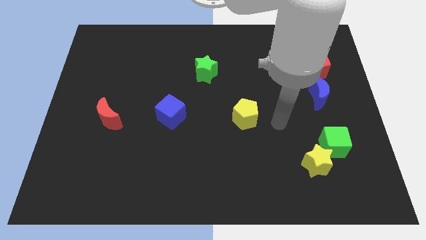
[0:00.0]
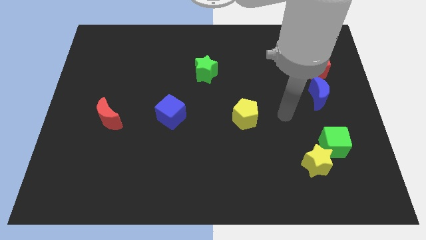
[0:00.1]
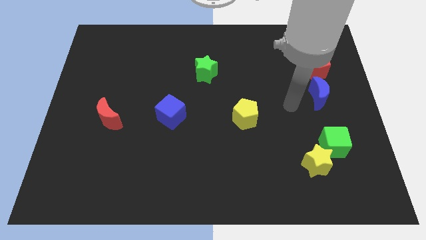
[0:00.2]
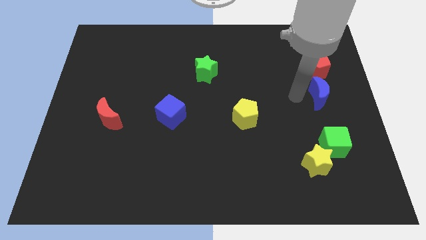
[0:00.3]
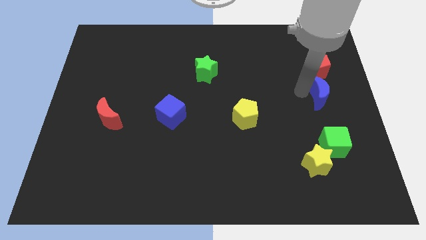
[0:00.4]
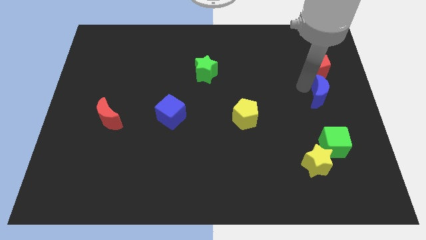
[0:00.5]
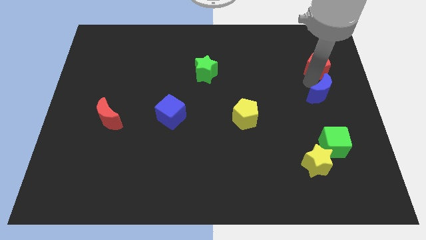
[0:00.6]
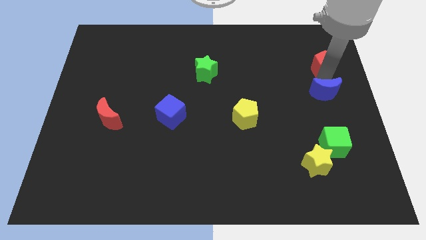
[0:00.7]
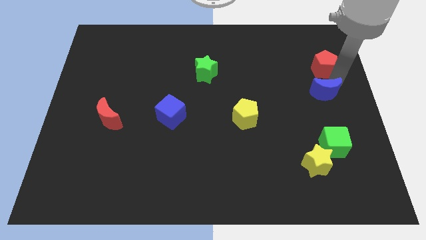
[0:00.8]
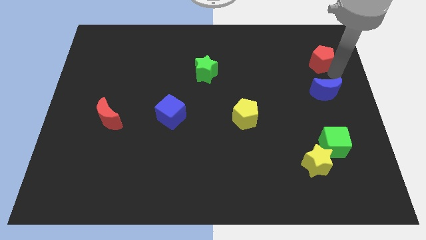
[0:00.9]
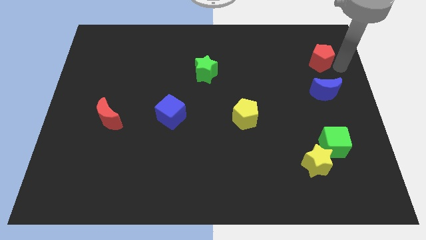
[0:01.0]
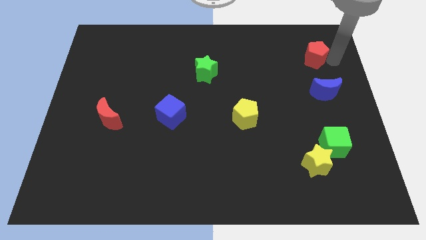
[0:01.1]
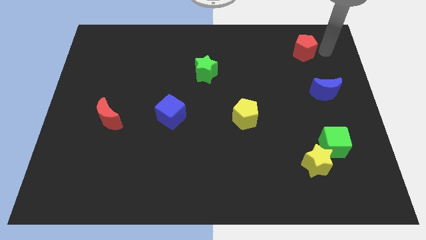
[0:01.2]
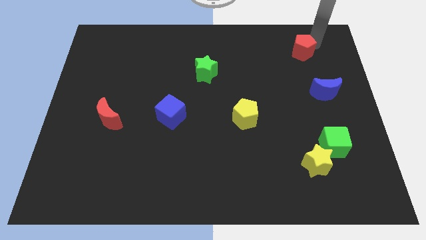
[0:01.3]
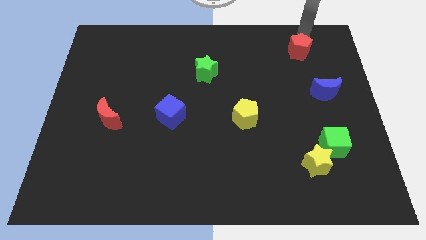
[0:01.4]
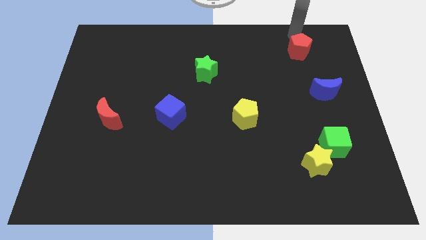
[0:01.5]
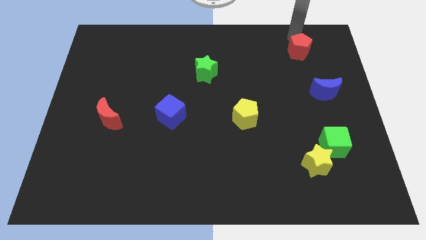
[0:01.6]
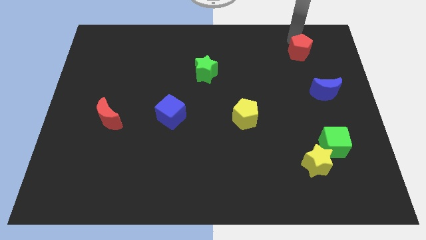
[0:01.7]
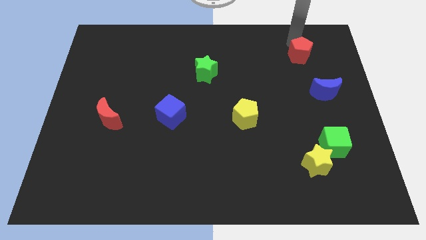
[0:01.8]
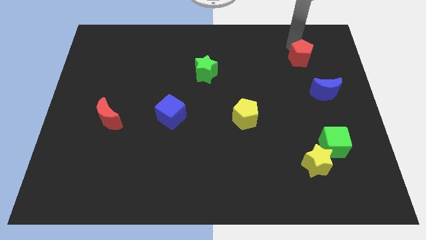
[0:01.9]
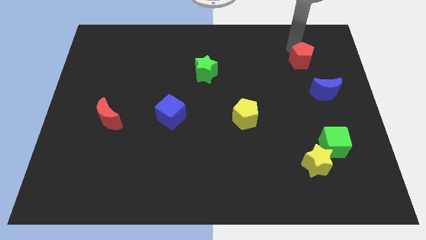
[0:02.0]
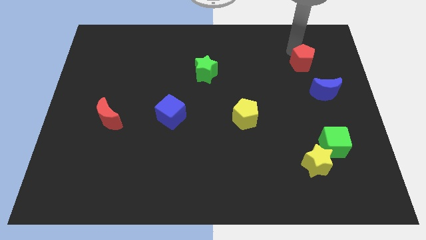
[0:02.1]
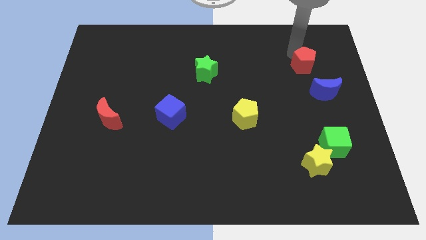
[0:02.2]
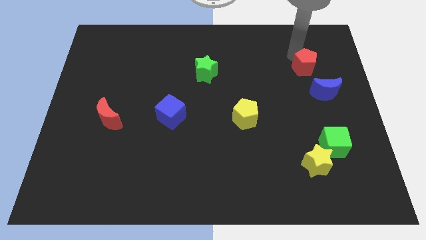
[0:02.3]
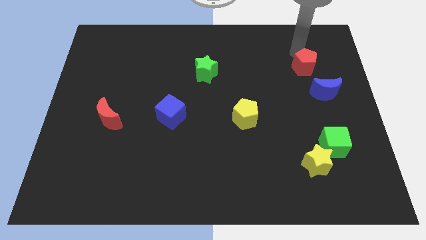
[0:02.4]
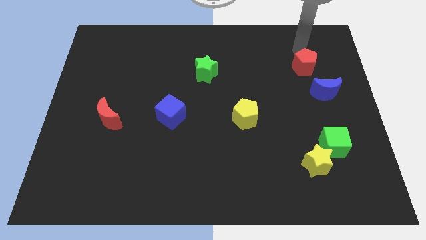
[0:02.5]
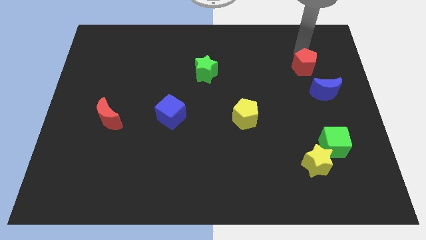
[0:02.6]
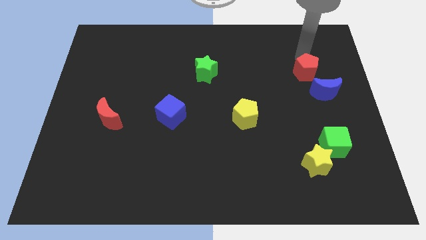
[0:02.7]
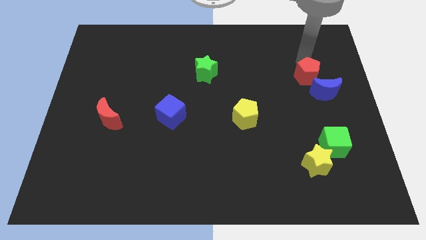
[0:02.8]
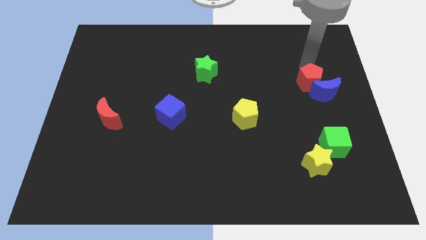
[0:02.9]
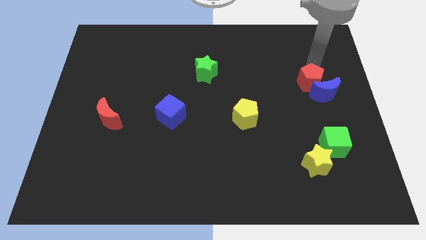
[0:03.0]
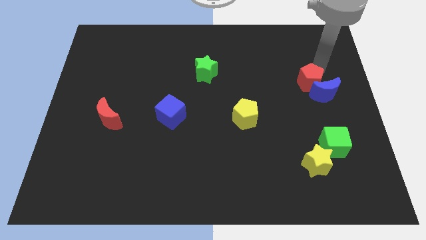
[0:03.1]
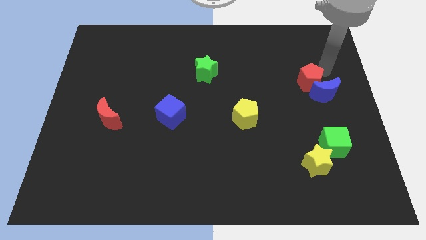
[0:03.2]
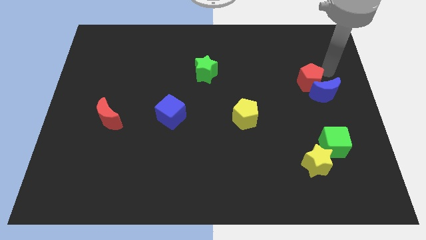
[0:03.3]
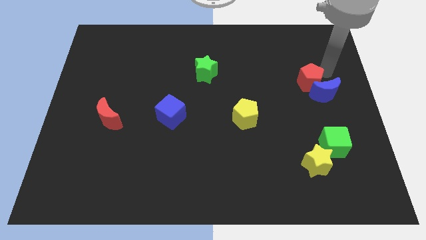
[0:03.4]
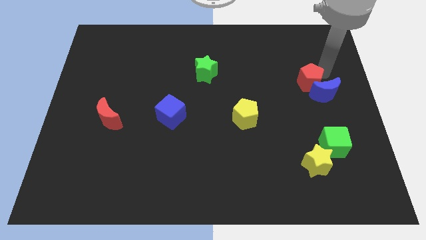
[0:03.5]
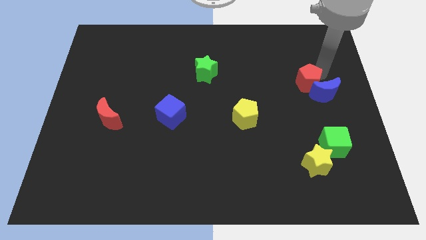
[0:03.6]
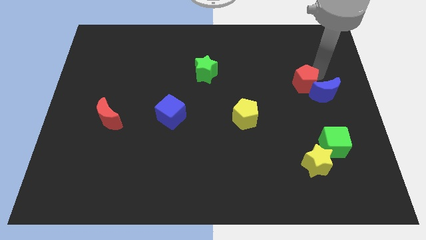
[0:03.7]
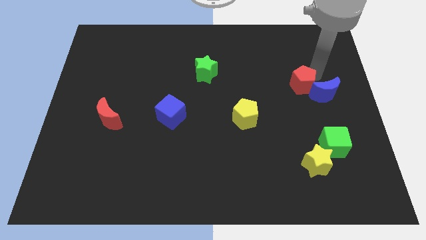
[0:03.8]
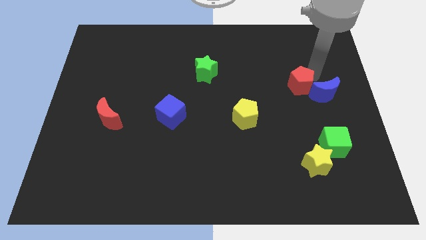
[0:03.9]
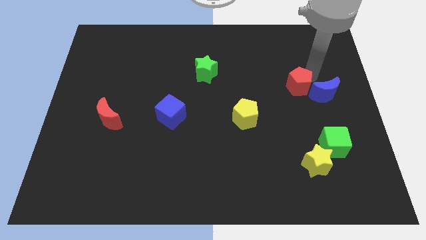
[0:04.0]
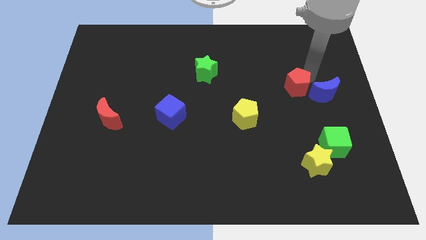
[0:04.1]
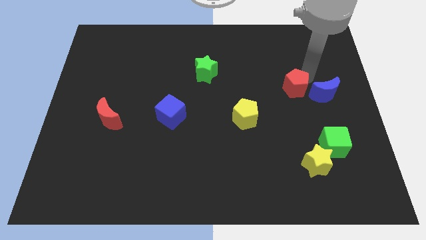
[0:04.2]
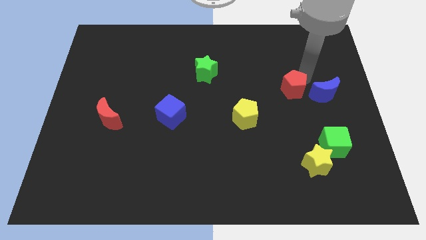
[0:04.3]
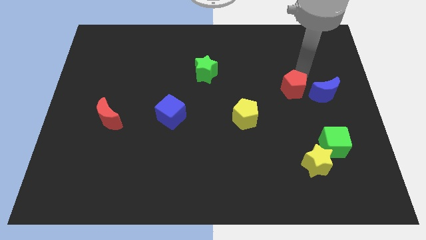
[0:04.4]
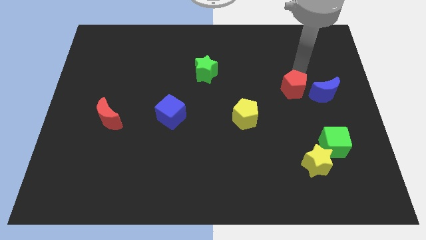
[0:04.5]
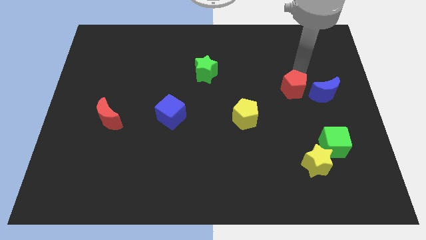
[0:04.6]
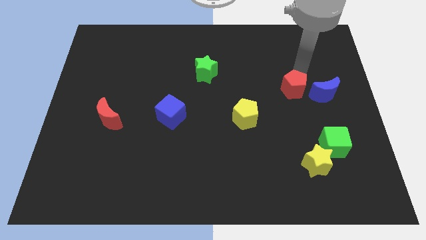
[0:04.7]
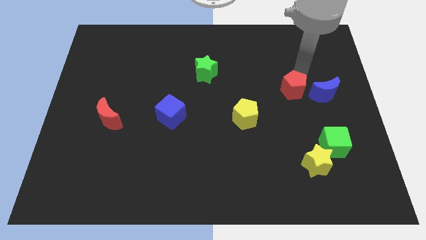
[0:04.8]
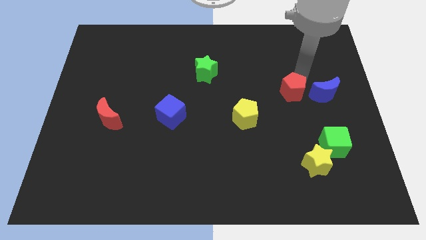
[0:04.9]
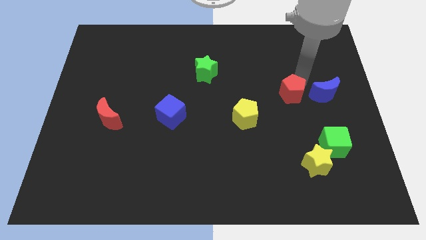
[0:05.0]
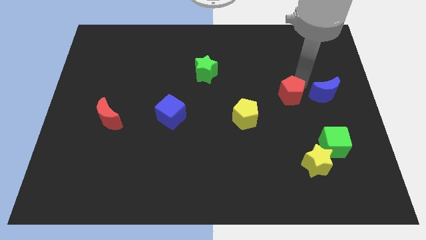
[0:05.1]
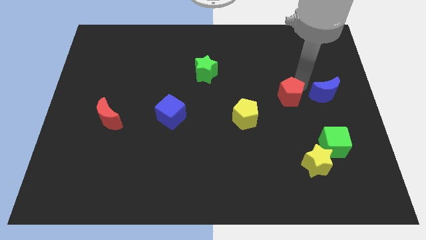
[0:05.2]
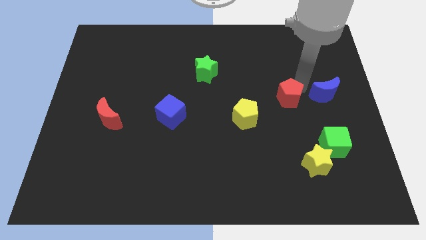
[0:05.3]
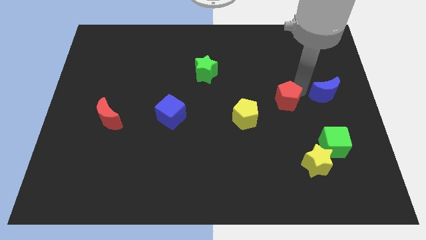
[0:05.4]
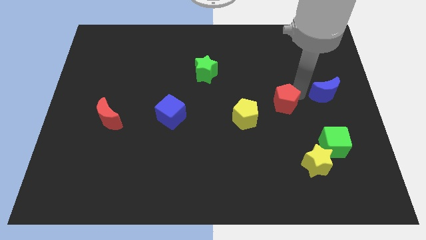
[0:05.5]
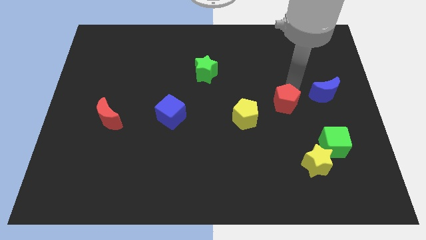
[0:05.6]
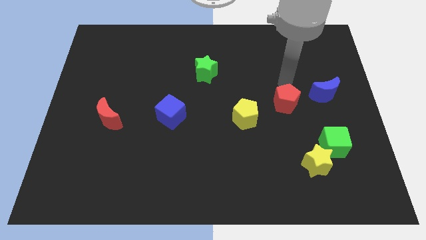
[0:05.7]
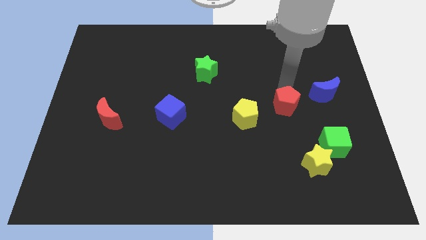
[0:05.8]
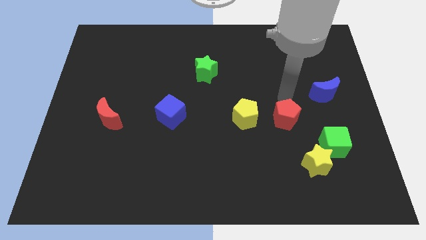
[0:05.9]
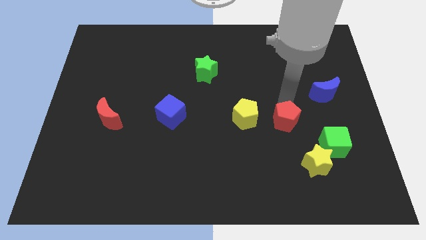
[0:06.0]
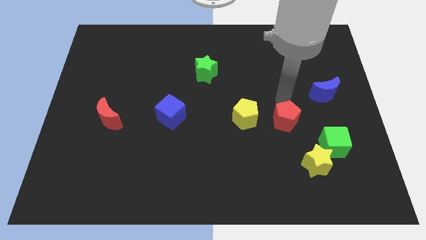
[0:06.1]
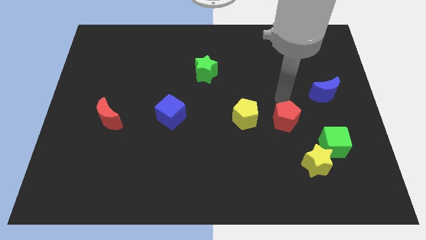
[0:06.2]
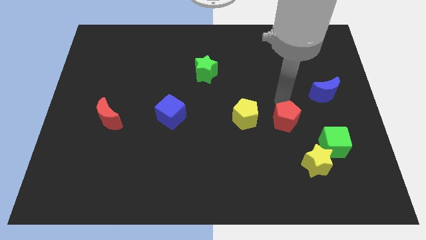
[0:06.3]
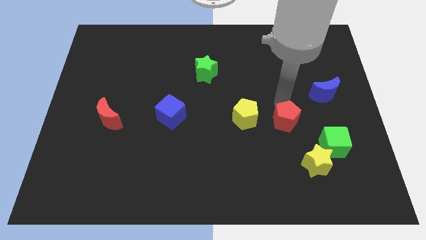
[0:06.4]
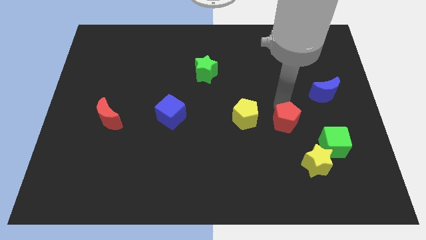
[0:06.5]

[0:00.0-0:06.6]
slide the red pentagon diagonally up and to the left of the yellow star

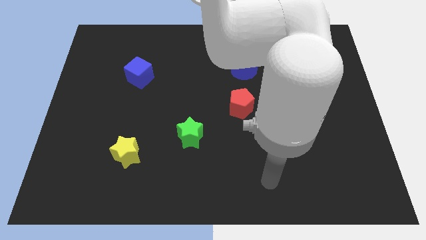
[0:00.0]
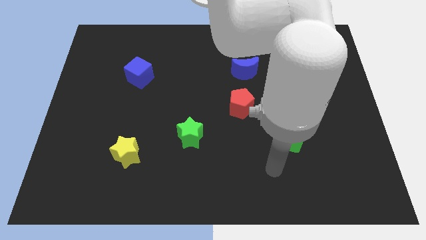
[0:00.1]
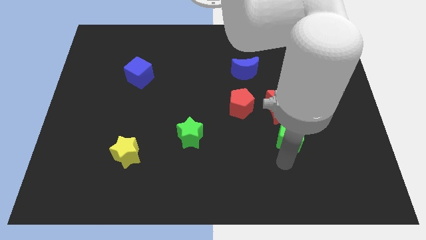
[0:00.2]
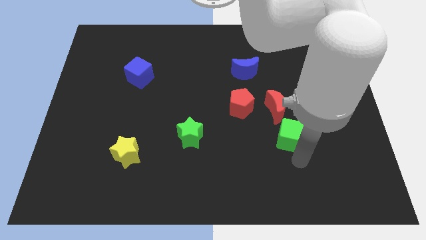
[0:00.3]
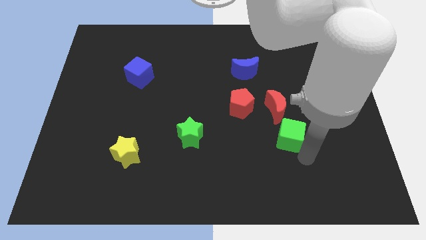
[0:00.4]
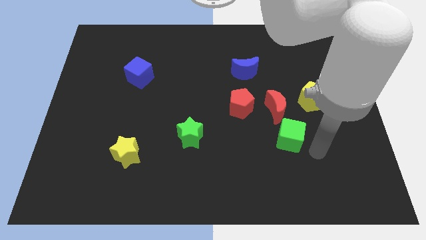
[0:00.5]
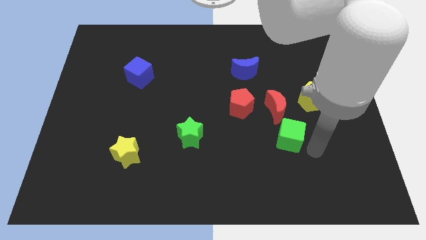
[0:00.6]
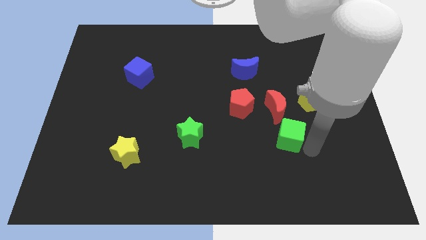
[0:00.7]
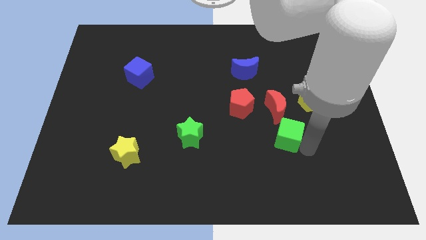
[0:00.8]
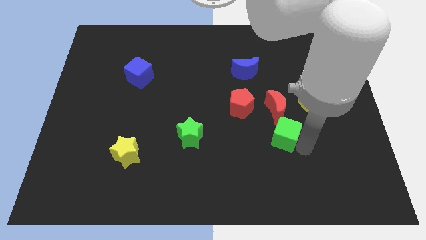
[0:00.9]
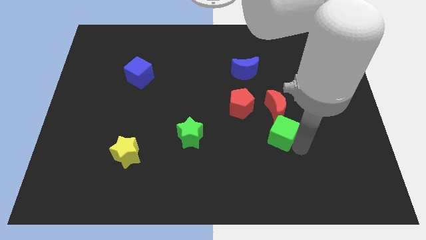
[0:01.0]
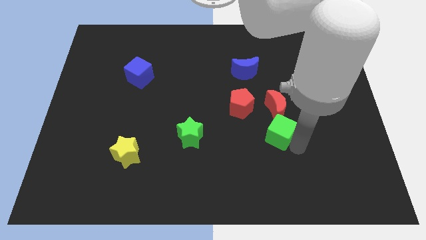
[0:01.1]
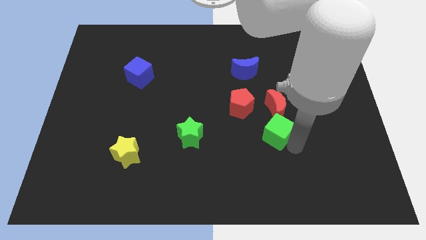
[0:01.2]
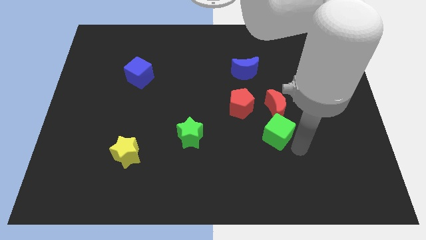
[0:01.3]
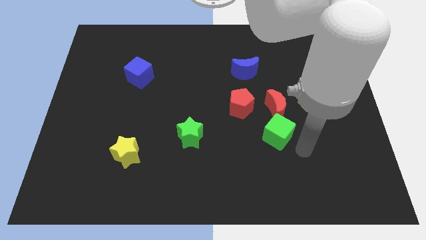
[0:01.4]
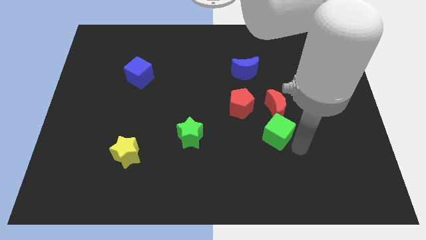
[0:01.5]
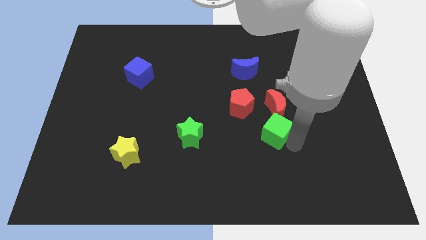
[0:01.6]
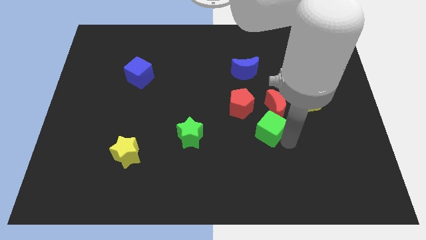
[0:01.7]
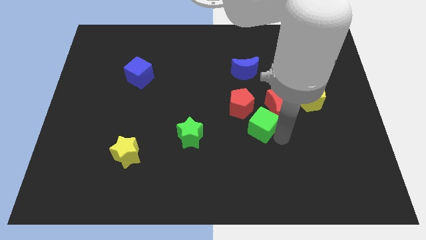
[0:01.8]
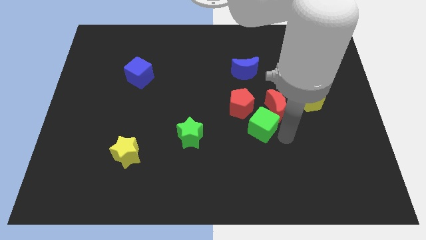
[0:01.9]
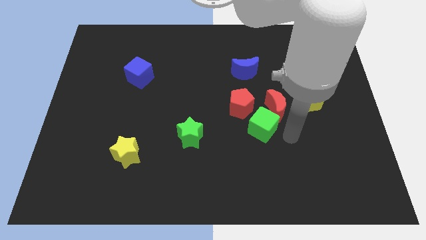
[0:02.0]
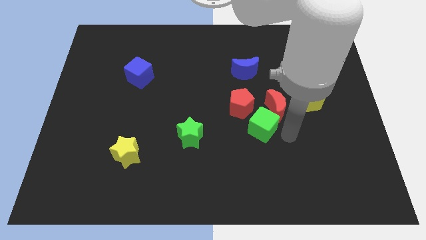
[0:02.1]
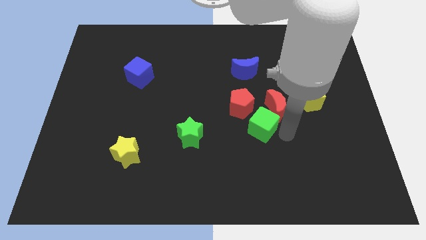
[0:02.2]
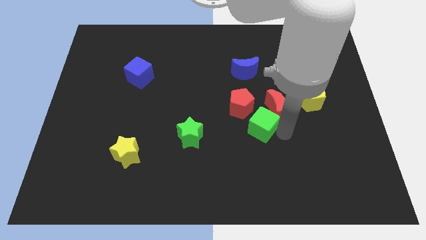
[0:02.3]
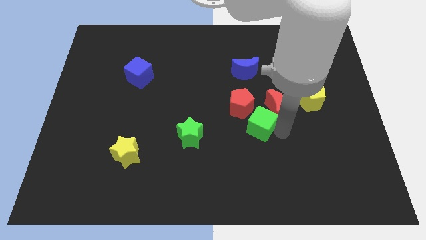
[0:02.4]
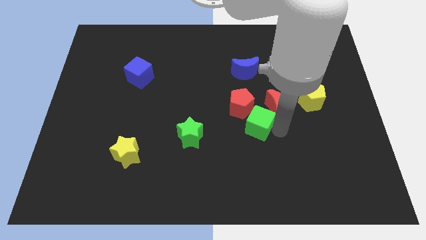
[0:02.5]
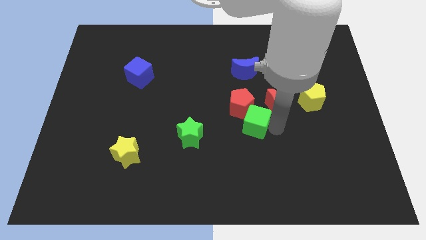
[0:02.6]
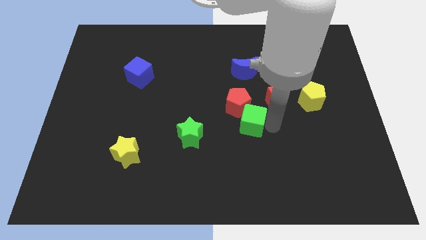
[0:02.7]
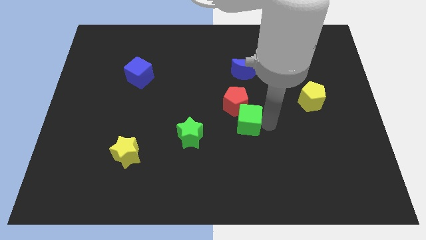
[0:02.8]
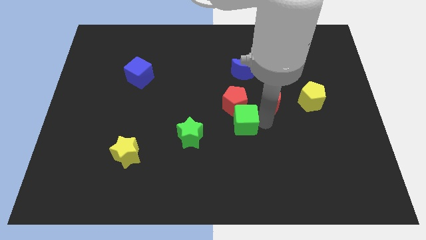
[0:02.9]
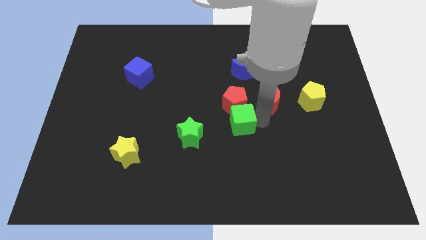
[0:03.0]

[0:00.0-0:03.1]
move the green cube to the bottom left of the red pentagon
